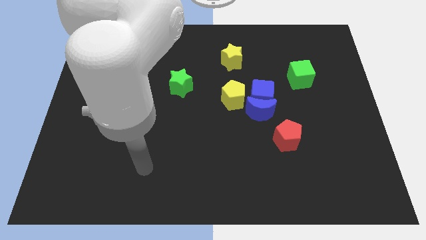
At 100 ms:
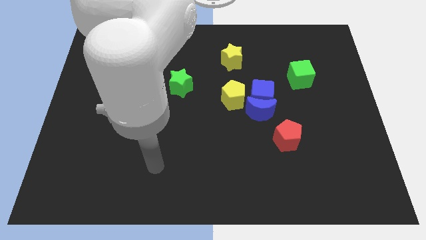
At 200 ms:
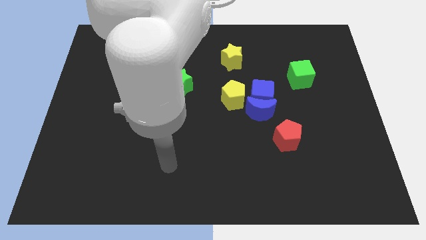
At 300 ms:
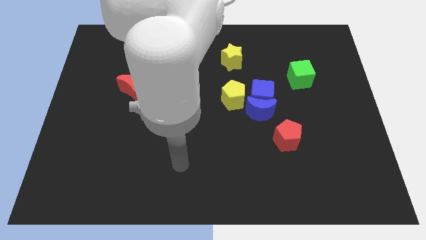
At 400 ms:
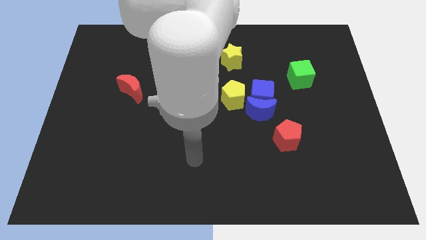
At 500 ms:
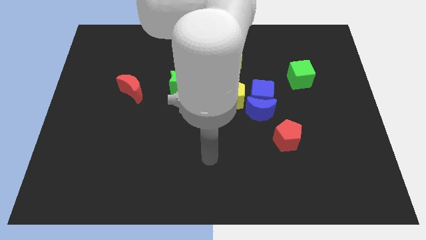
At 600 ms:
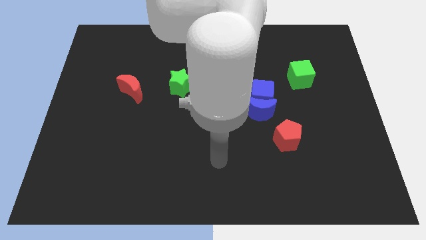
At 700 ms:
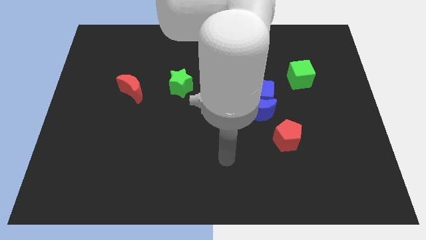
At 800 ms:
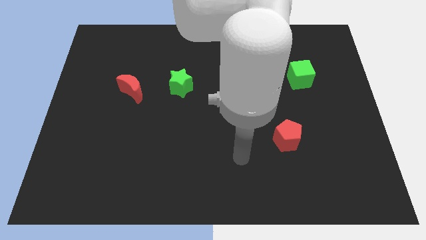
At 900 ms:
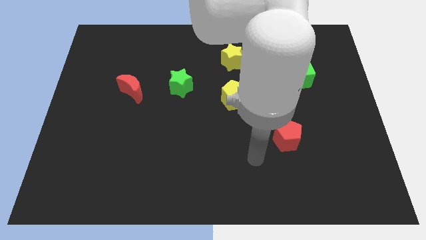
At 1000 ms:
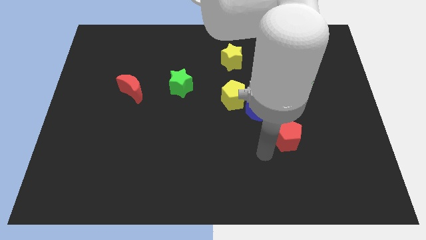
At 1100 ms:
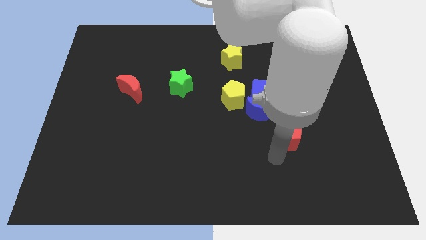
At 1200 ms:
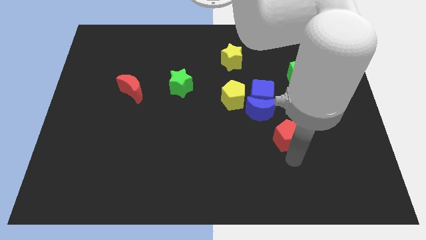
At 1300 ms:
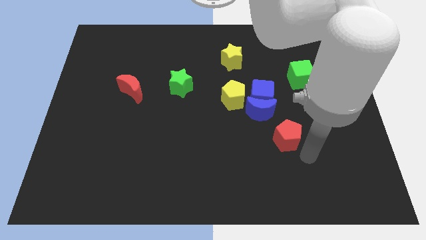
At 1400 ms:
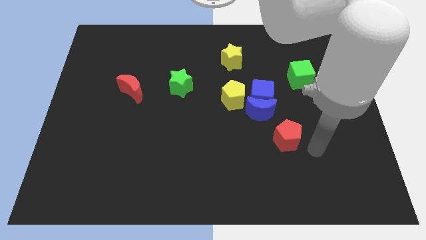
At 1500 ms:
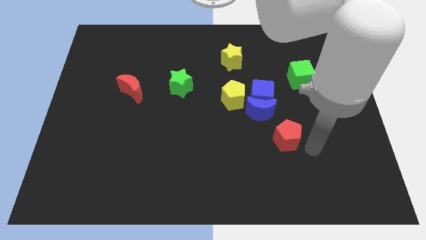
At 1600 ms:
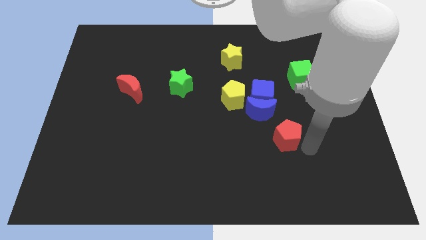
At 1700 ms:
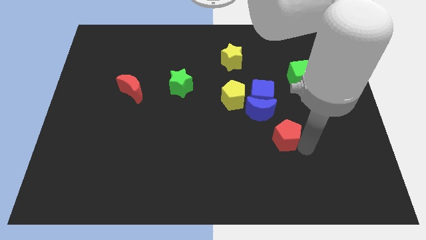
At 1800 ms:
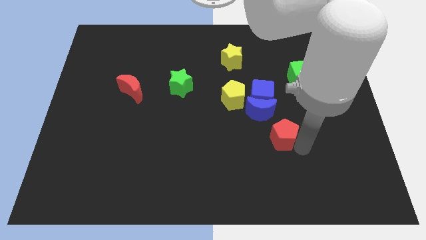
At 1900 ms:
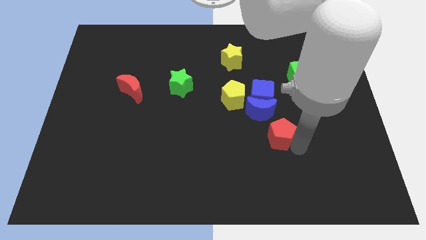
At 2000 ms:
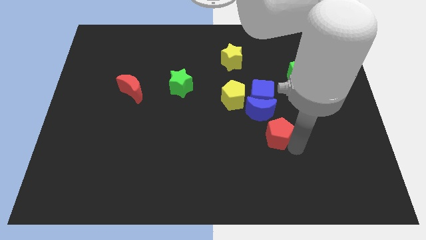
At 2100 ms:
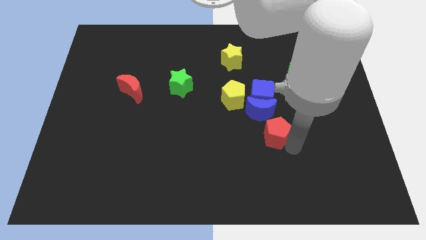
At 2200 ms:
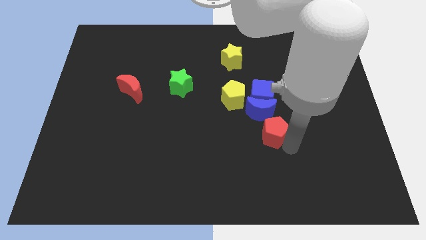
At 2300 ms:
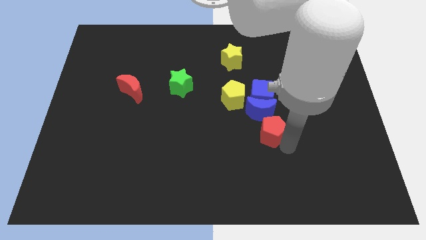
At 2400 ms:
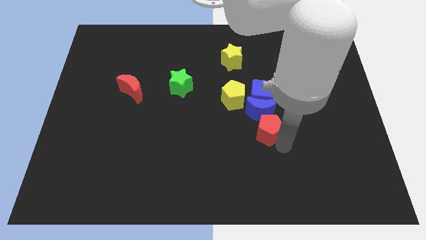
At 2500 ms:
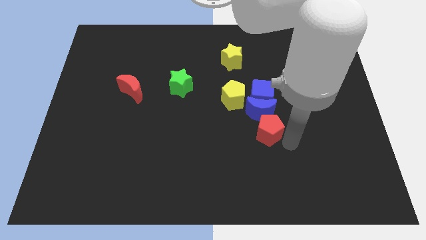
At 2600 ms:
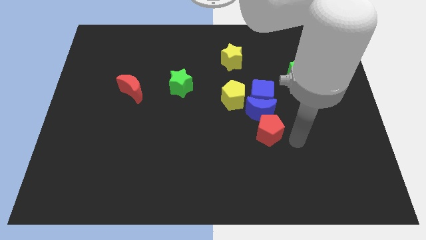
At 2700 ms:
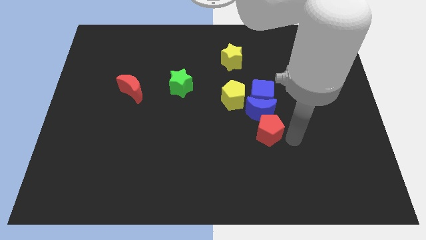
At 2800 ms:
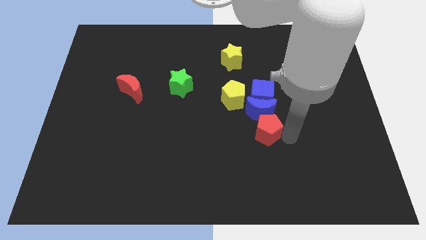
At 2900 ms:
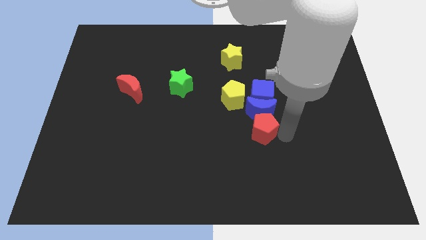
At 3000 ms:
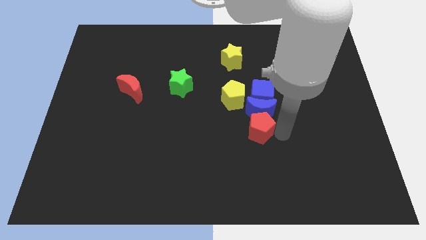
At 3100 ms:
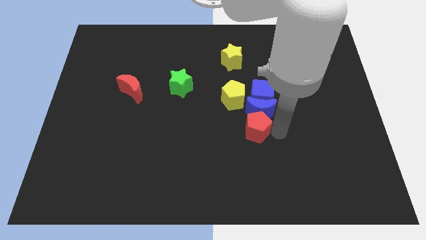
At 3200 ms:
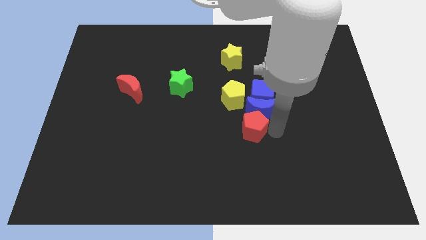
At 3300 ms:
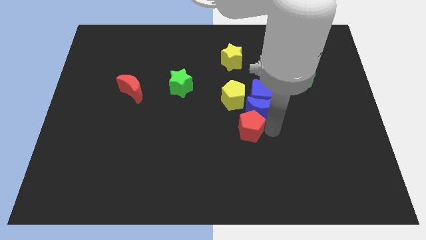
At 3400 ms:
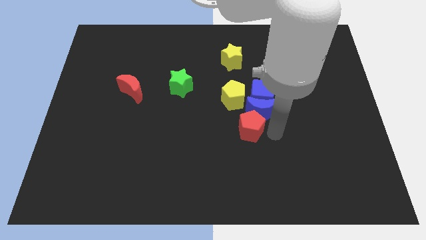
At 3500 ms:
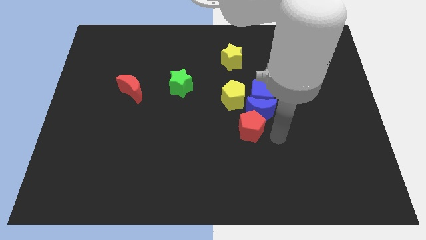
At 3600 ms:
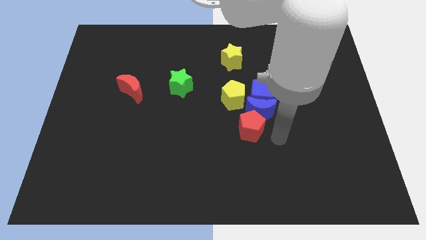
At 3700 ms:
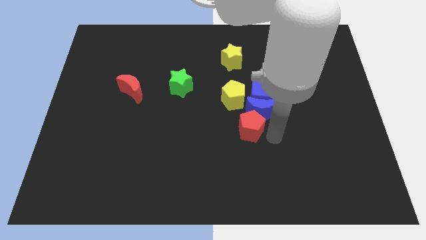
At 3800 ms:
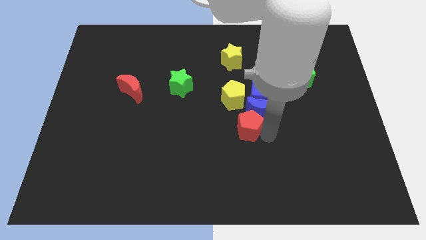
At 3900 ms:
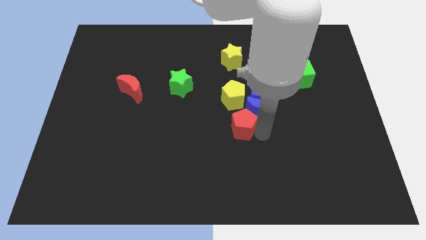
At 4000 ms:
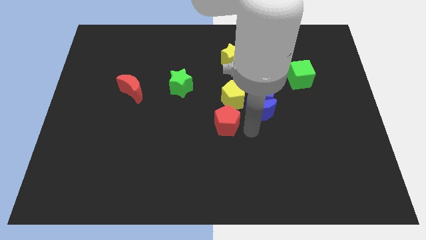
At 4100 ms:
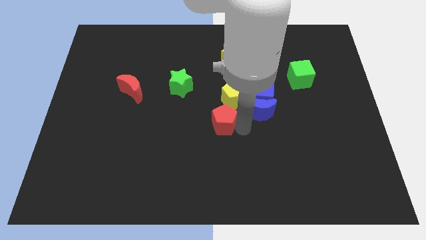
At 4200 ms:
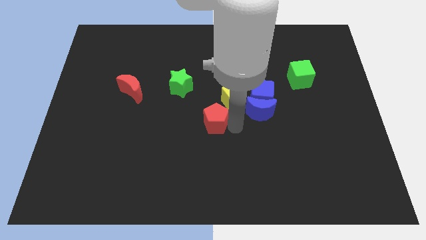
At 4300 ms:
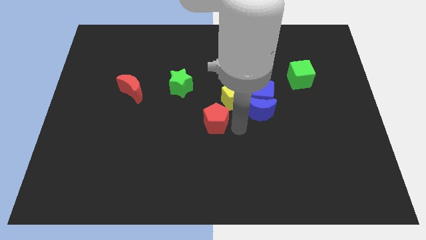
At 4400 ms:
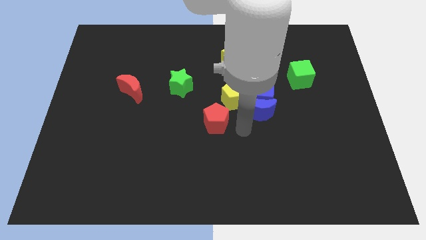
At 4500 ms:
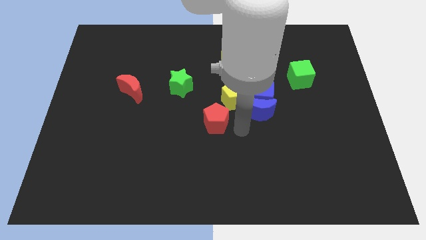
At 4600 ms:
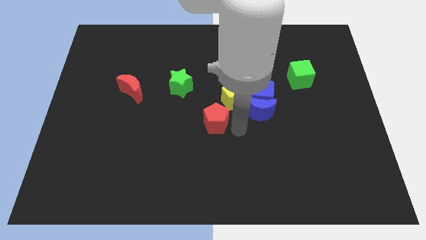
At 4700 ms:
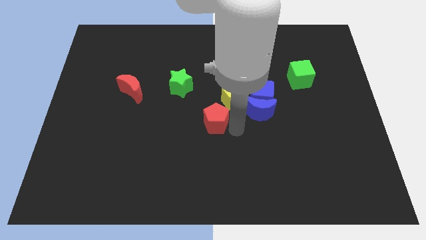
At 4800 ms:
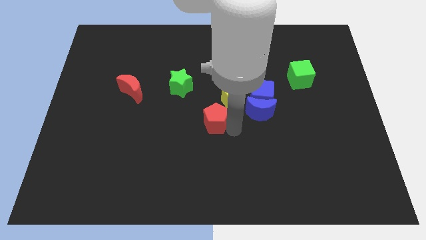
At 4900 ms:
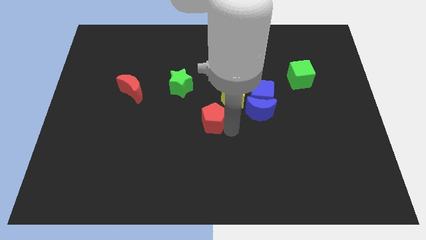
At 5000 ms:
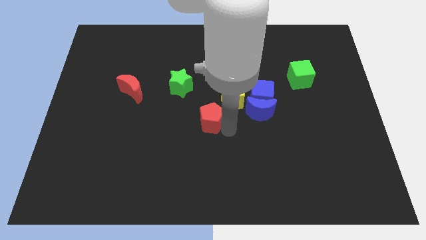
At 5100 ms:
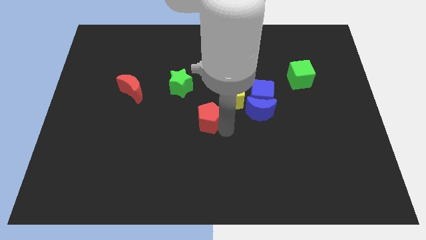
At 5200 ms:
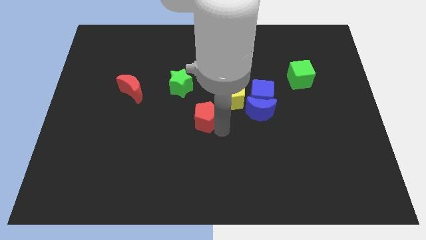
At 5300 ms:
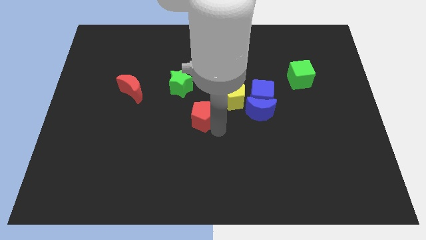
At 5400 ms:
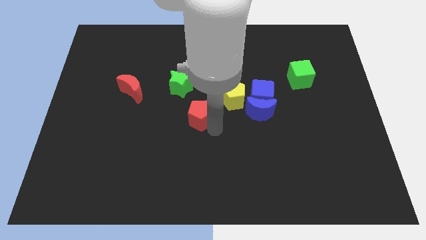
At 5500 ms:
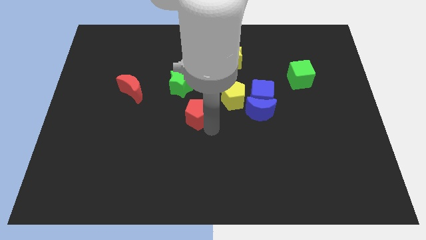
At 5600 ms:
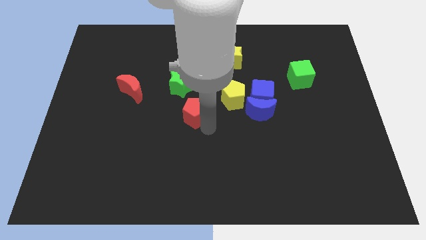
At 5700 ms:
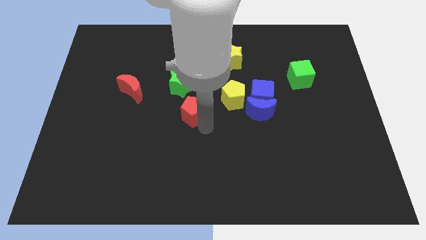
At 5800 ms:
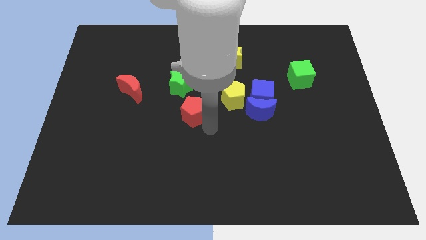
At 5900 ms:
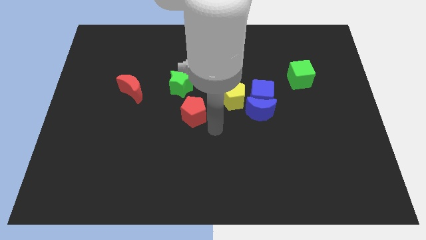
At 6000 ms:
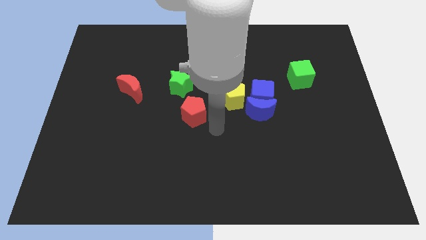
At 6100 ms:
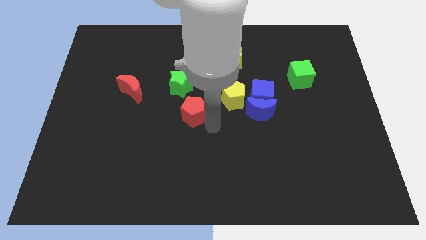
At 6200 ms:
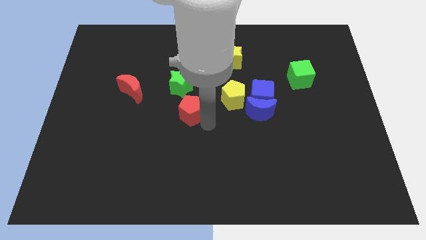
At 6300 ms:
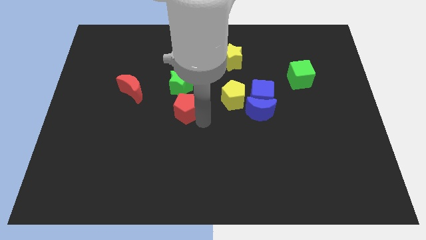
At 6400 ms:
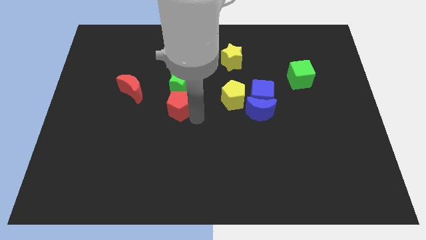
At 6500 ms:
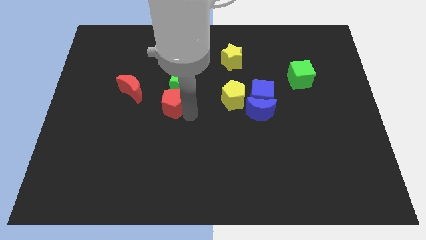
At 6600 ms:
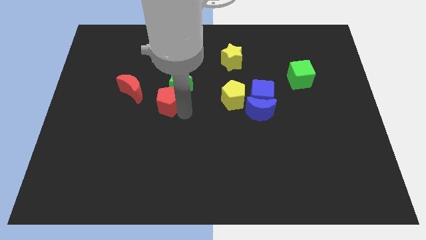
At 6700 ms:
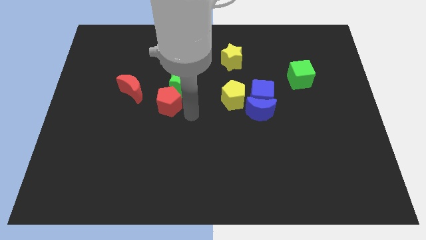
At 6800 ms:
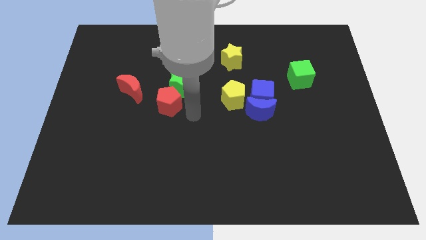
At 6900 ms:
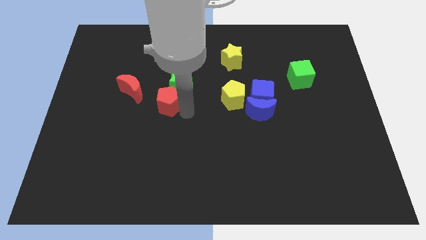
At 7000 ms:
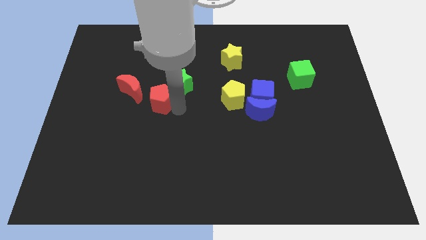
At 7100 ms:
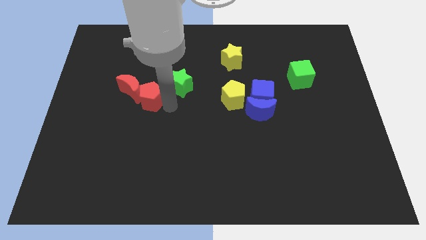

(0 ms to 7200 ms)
push the red pentagon next to the red moon
